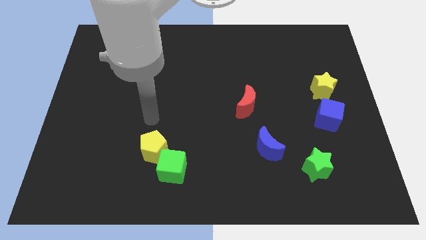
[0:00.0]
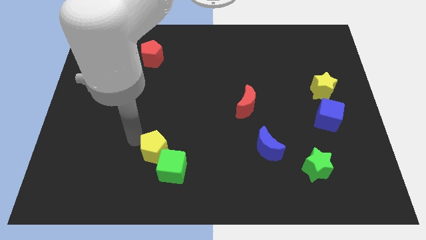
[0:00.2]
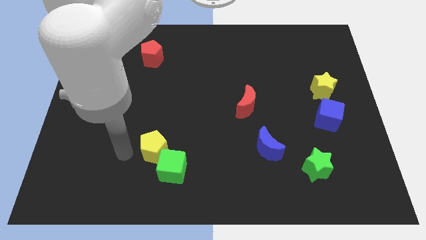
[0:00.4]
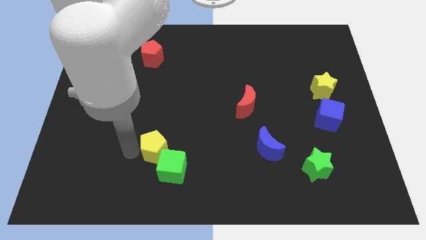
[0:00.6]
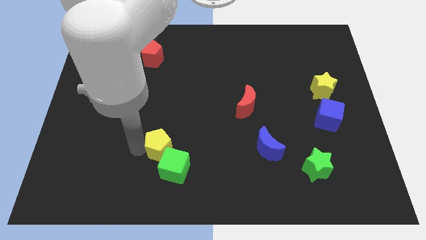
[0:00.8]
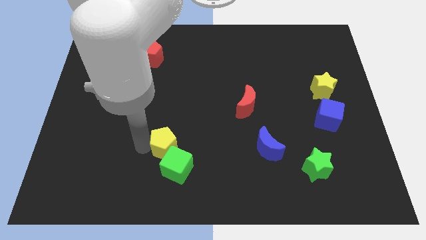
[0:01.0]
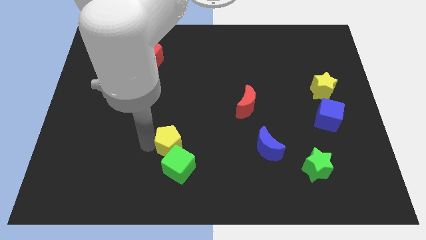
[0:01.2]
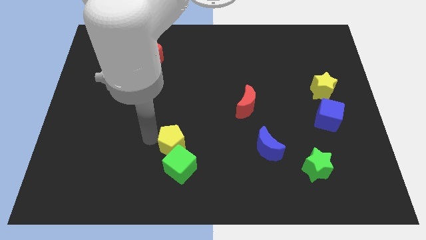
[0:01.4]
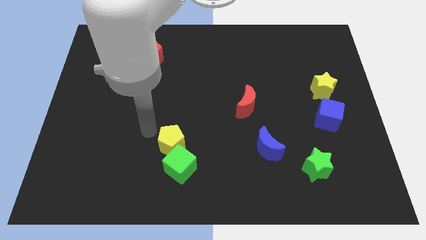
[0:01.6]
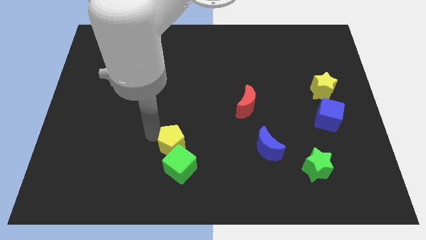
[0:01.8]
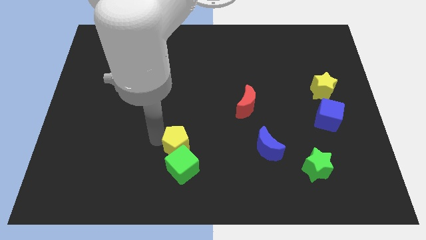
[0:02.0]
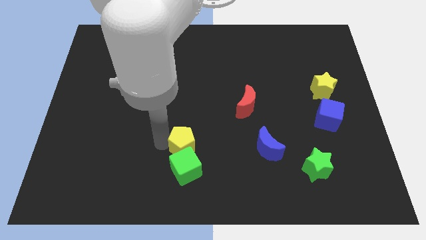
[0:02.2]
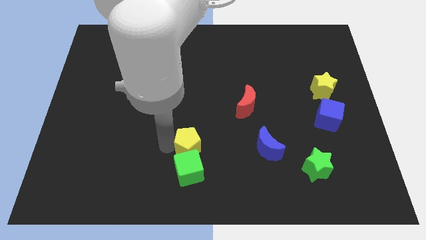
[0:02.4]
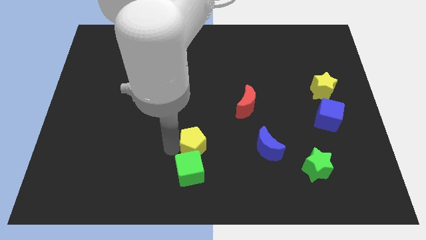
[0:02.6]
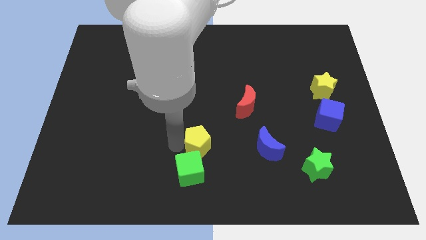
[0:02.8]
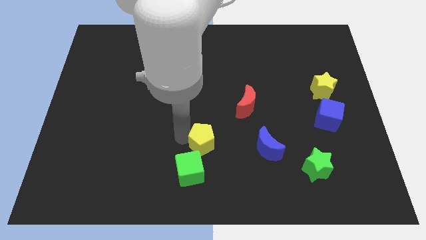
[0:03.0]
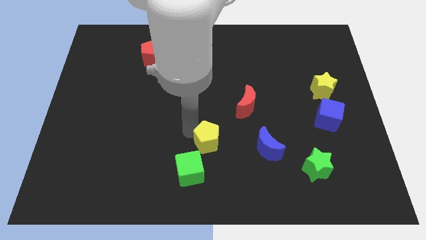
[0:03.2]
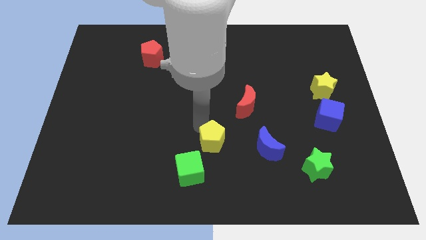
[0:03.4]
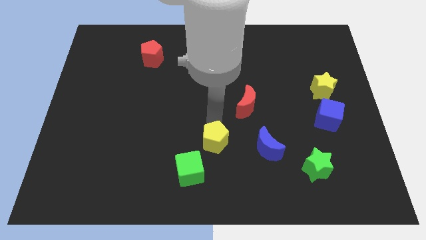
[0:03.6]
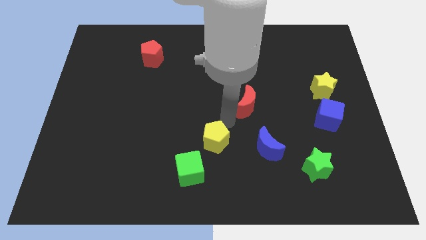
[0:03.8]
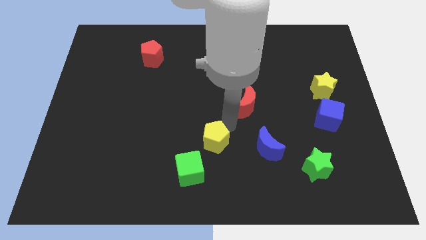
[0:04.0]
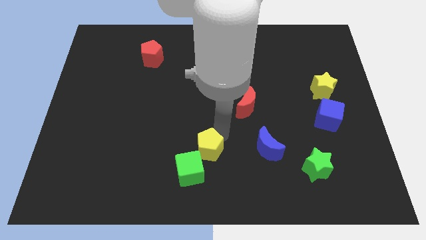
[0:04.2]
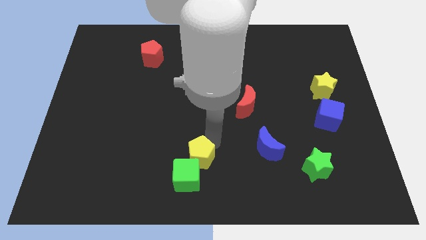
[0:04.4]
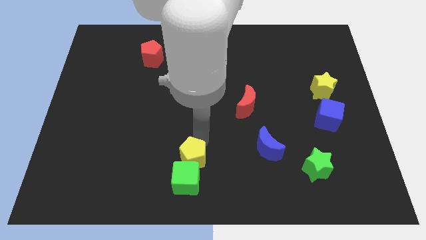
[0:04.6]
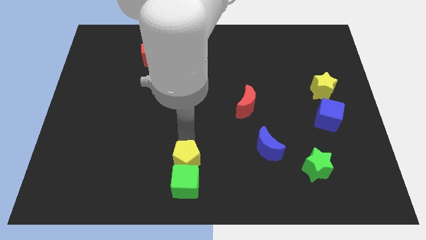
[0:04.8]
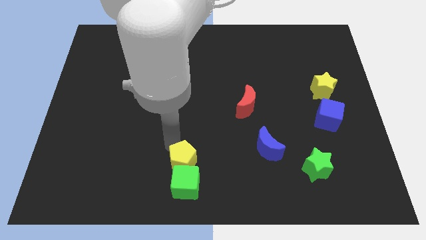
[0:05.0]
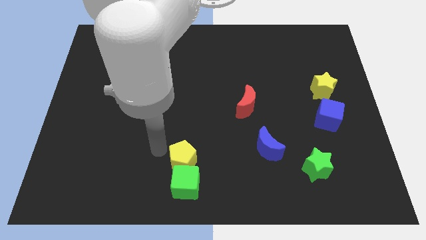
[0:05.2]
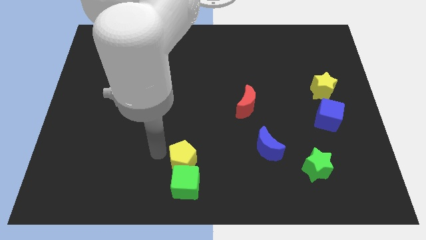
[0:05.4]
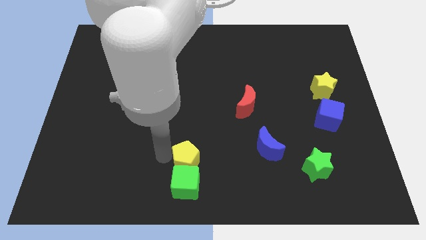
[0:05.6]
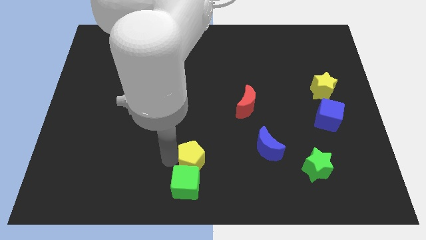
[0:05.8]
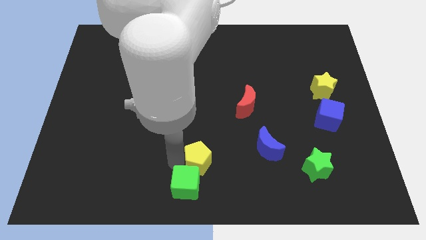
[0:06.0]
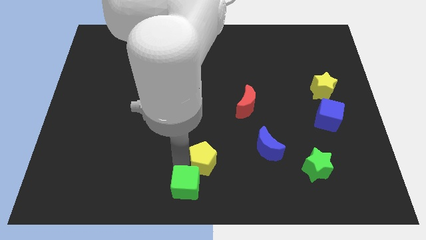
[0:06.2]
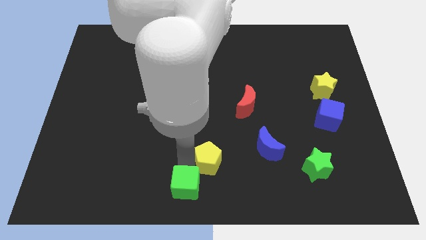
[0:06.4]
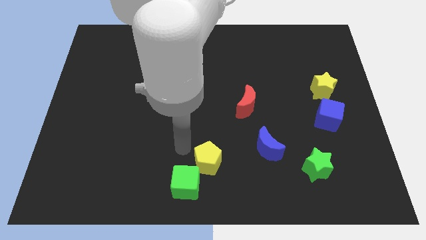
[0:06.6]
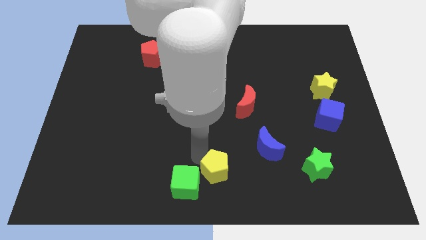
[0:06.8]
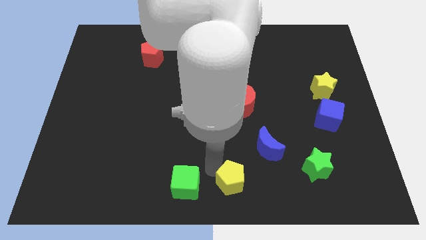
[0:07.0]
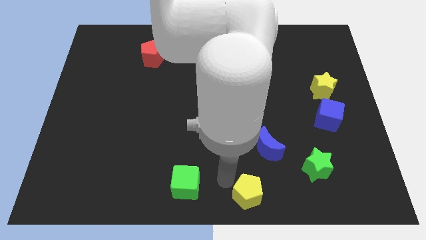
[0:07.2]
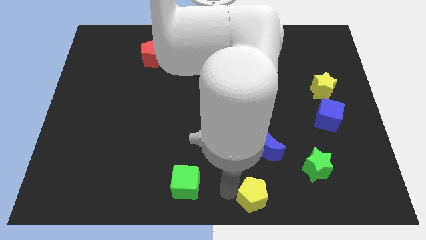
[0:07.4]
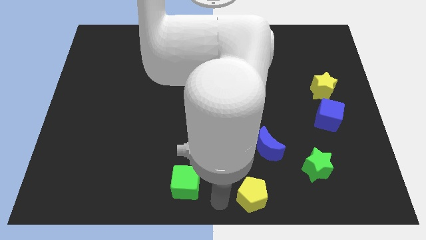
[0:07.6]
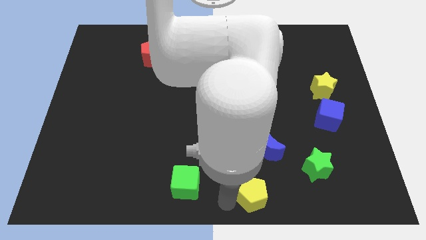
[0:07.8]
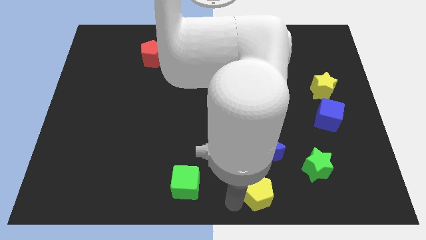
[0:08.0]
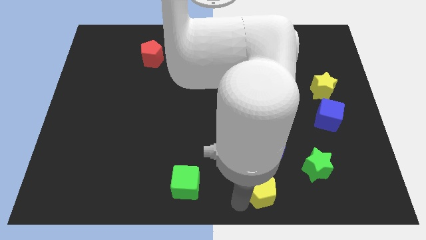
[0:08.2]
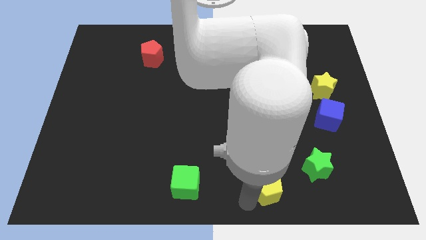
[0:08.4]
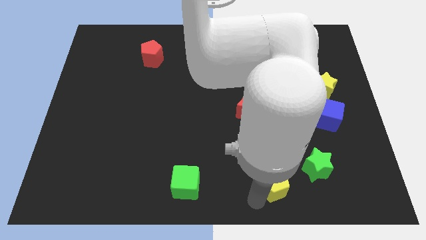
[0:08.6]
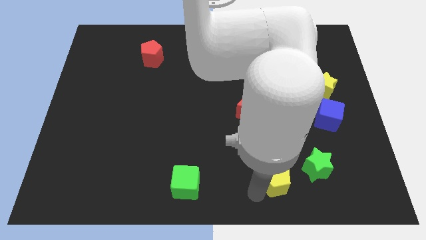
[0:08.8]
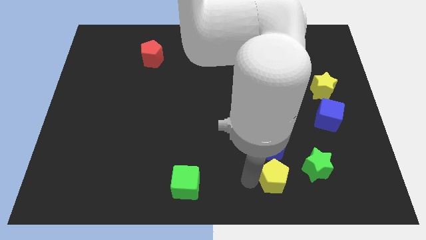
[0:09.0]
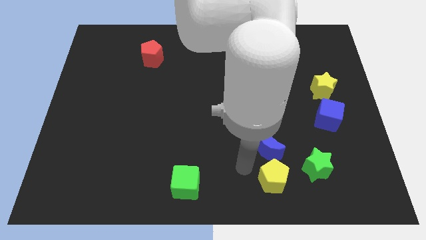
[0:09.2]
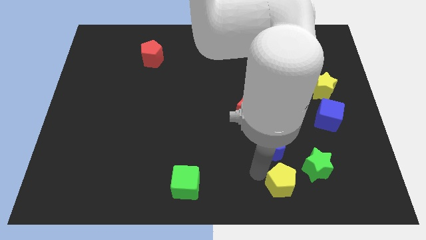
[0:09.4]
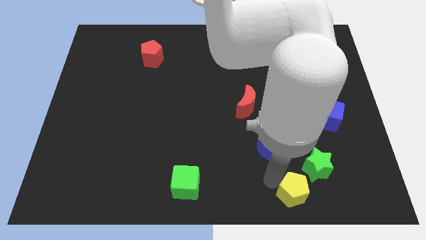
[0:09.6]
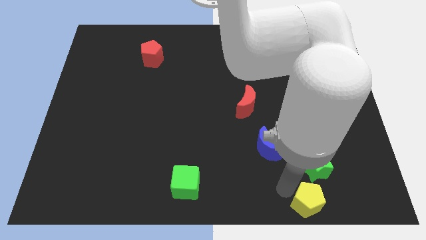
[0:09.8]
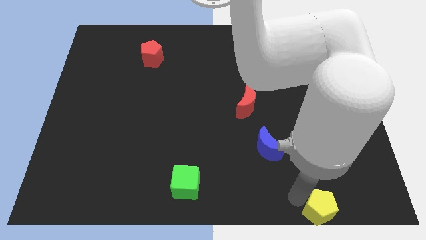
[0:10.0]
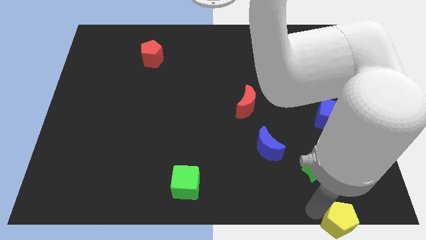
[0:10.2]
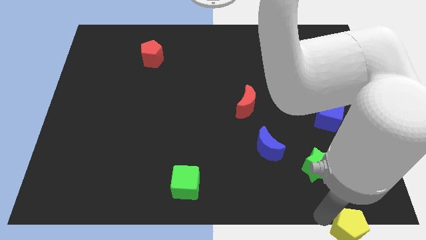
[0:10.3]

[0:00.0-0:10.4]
push the yellow pentagon to the bottom right

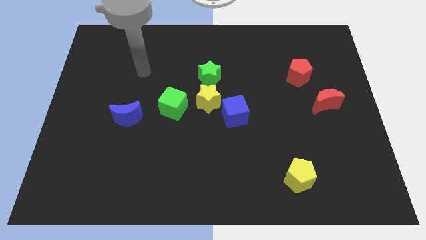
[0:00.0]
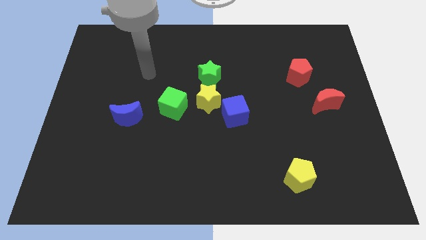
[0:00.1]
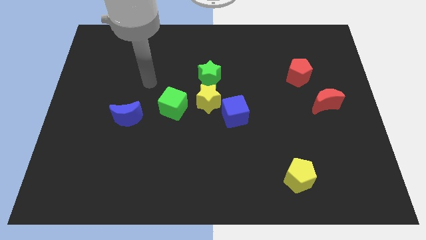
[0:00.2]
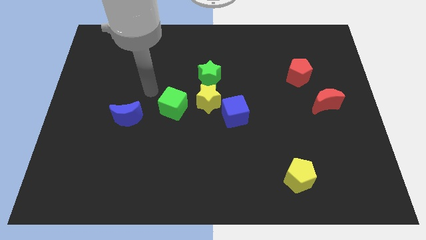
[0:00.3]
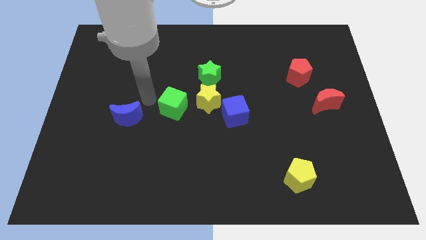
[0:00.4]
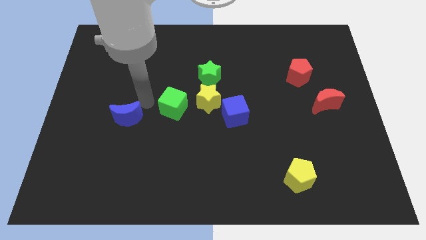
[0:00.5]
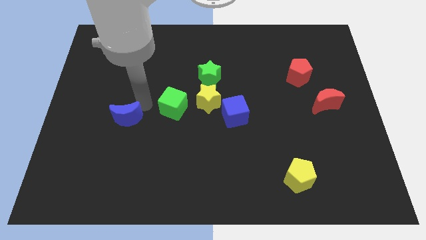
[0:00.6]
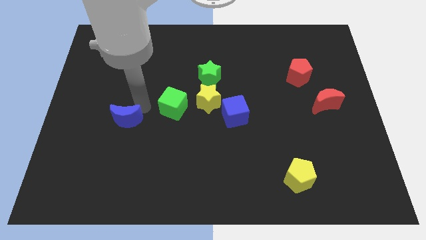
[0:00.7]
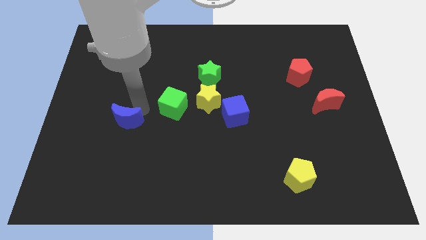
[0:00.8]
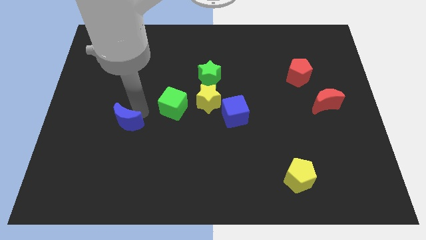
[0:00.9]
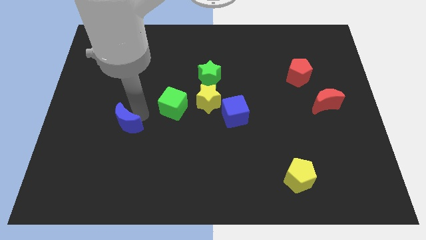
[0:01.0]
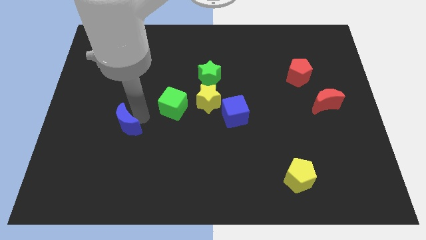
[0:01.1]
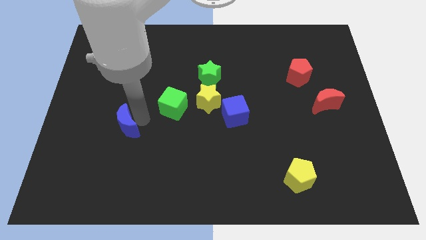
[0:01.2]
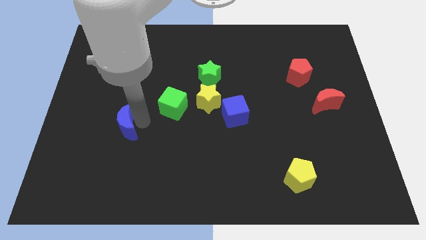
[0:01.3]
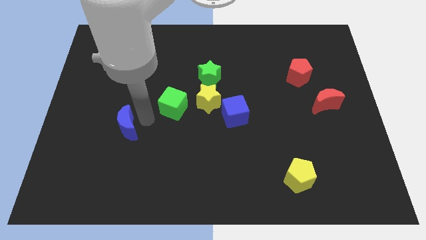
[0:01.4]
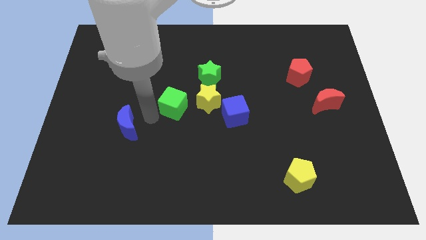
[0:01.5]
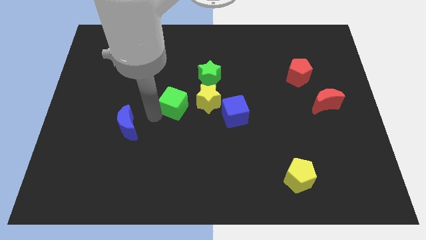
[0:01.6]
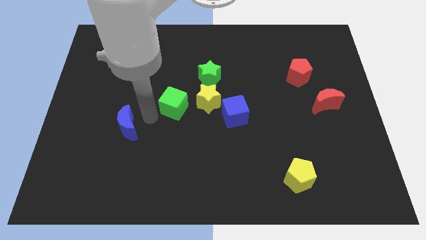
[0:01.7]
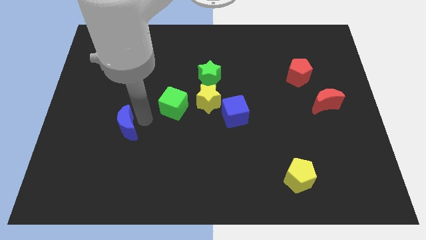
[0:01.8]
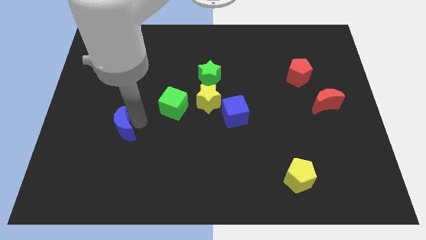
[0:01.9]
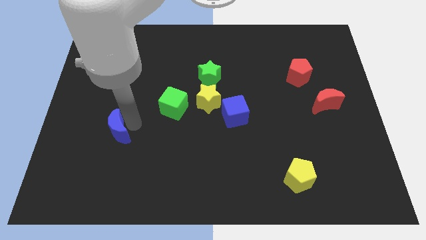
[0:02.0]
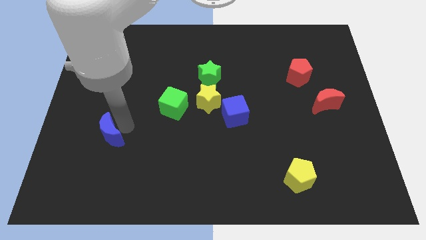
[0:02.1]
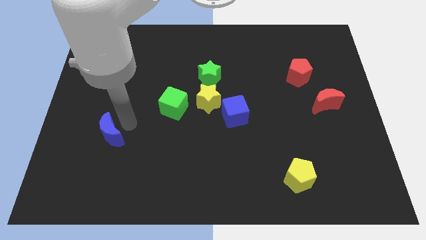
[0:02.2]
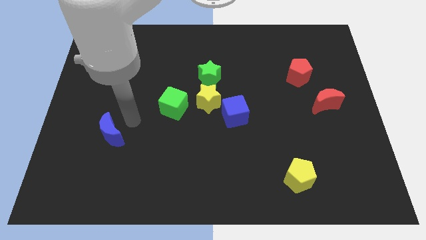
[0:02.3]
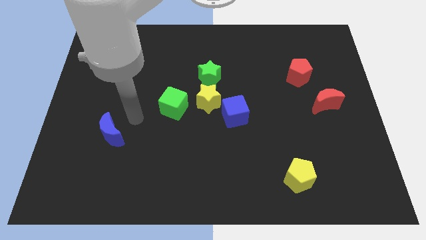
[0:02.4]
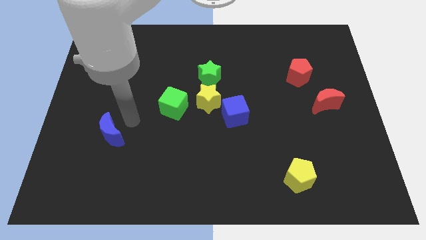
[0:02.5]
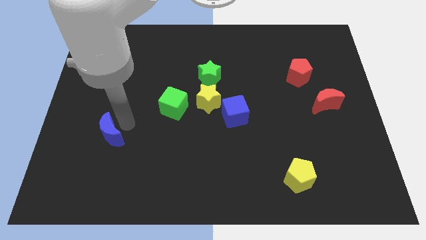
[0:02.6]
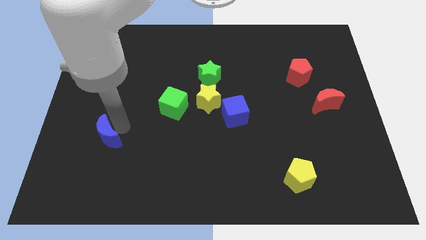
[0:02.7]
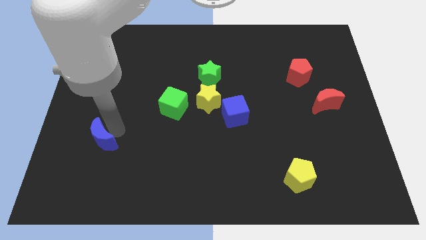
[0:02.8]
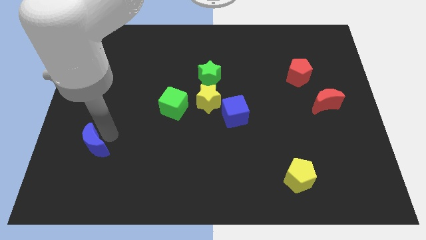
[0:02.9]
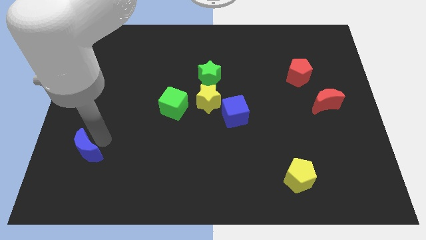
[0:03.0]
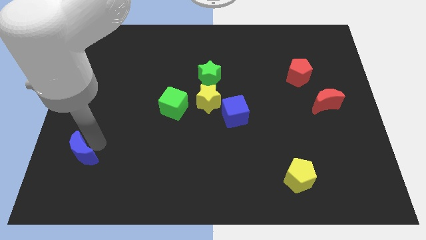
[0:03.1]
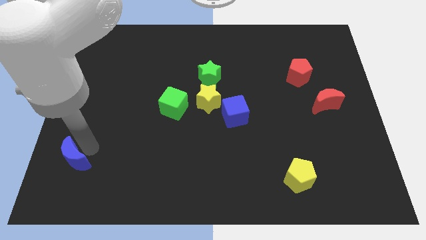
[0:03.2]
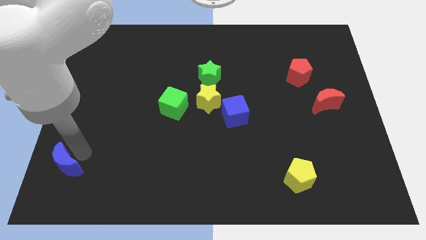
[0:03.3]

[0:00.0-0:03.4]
put the blue moon to the bottom left
